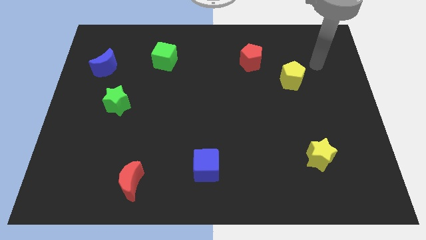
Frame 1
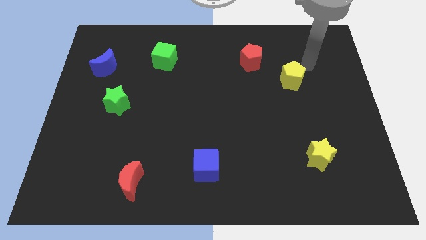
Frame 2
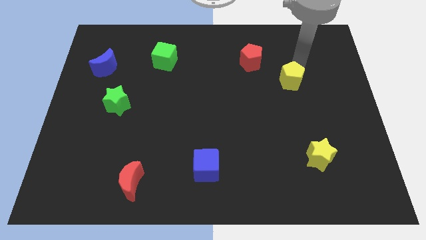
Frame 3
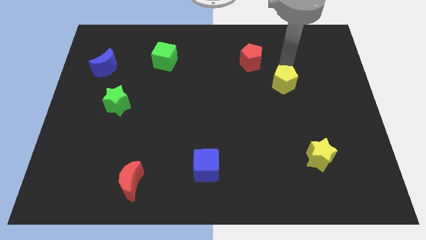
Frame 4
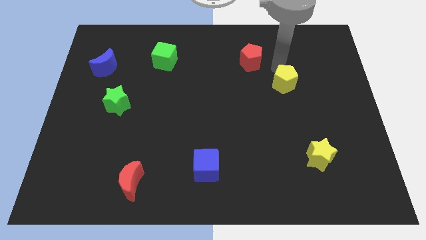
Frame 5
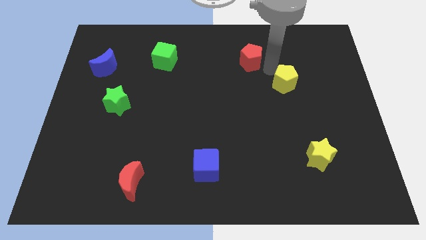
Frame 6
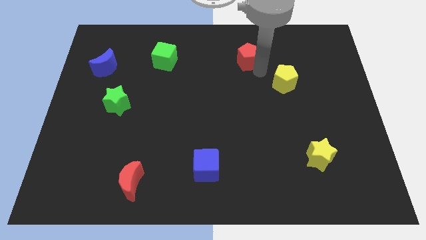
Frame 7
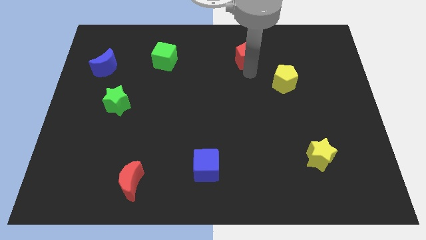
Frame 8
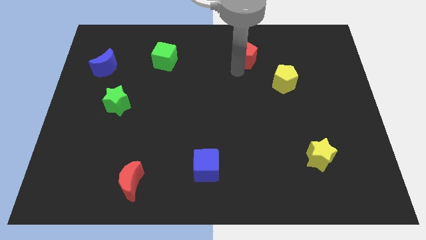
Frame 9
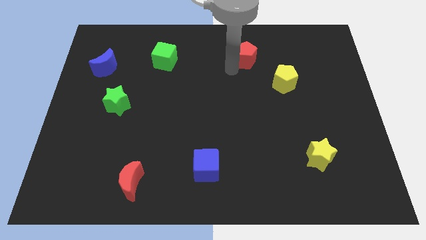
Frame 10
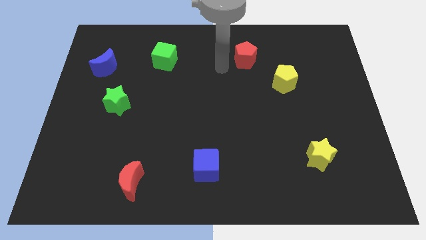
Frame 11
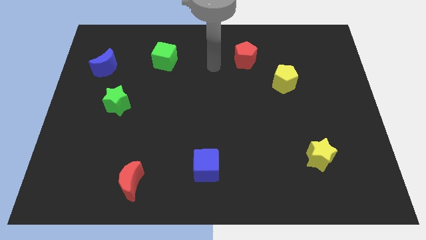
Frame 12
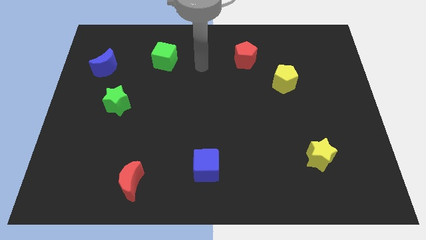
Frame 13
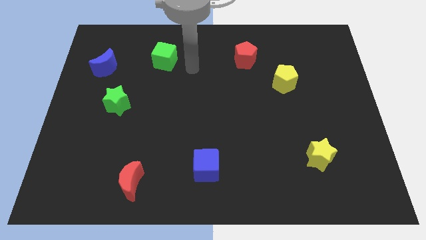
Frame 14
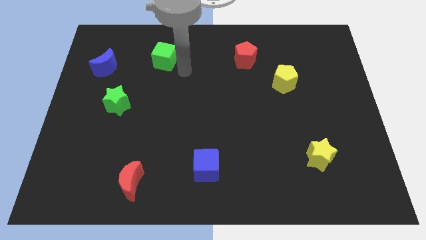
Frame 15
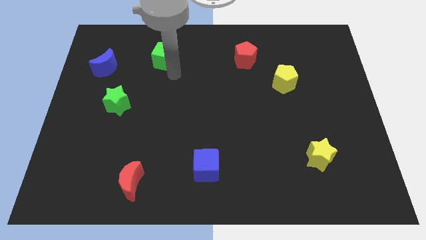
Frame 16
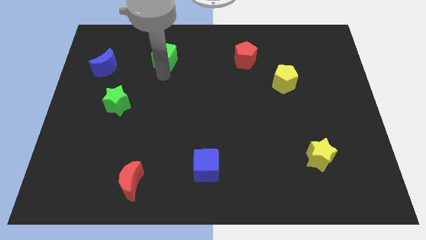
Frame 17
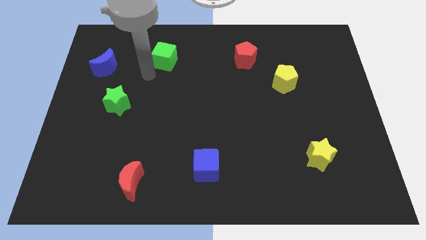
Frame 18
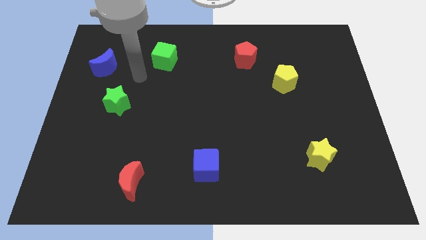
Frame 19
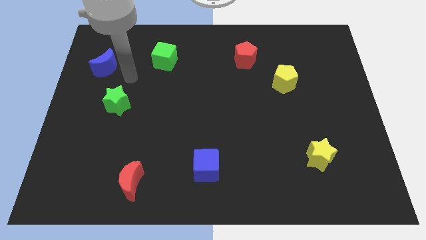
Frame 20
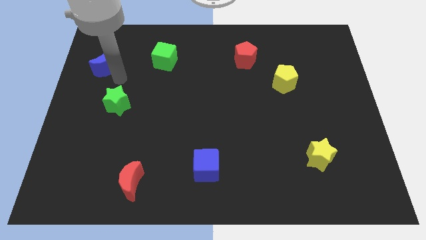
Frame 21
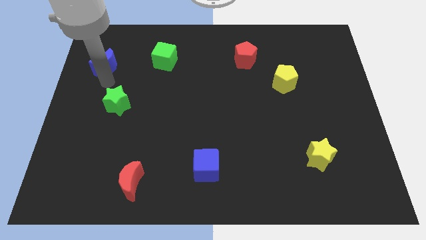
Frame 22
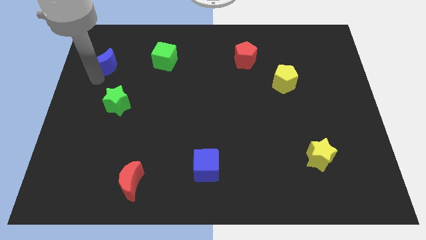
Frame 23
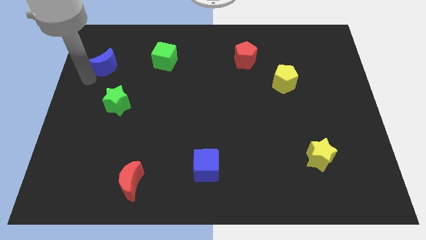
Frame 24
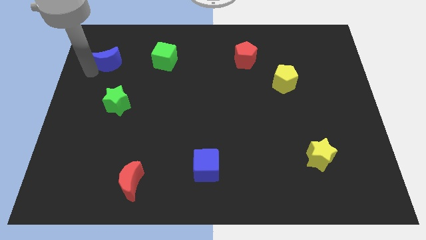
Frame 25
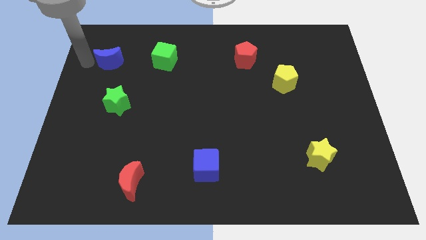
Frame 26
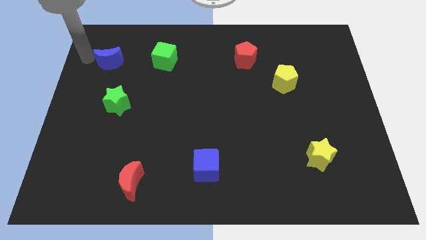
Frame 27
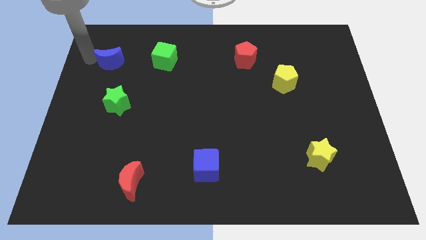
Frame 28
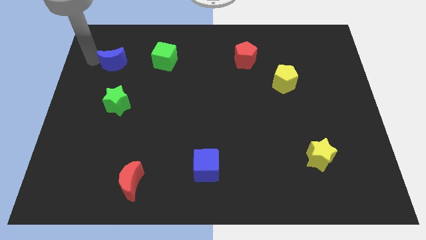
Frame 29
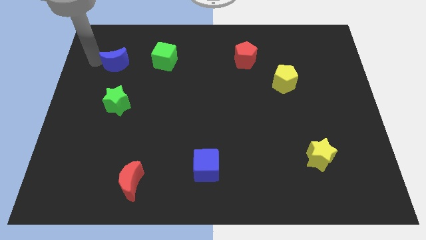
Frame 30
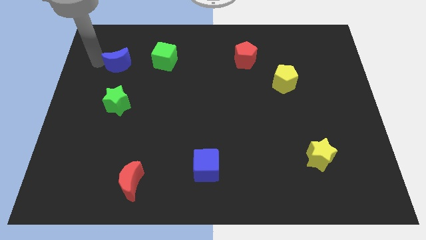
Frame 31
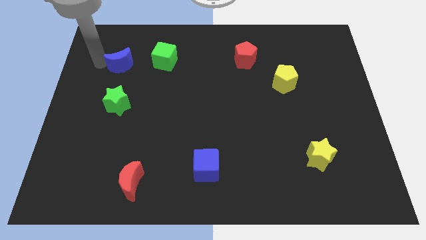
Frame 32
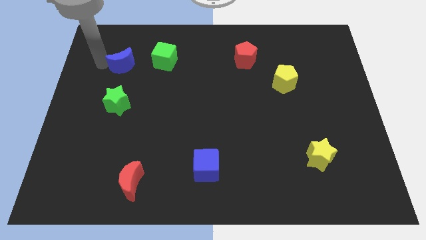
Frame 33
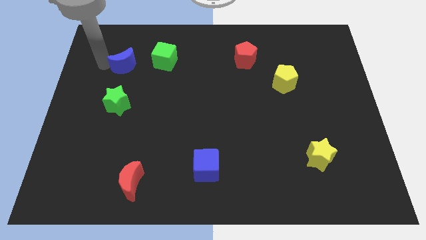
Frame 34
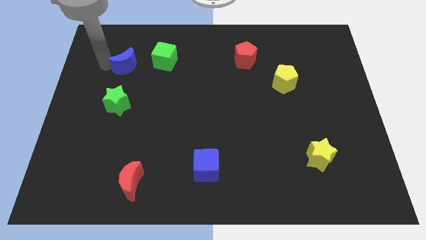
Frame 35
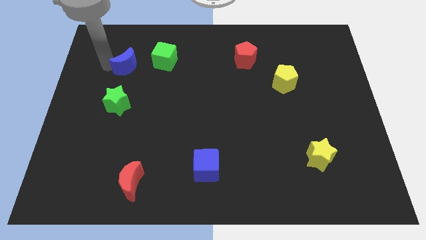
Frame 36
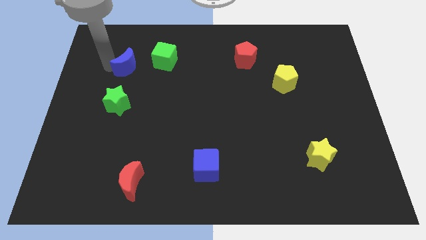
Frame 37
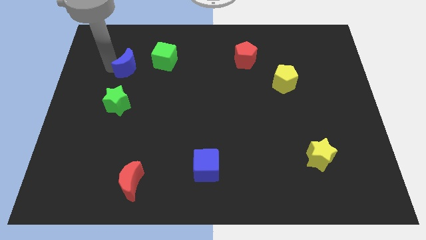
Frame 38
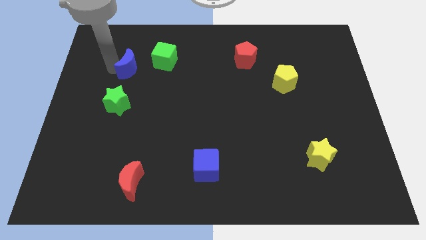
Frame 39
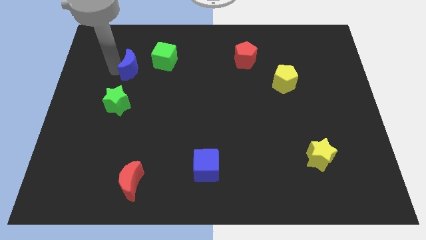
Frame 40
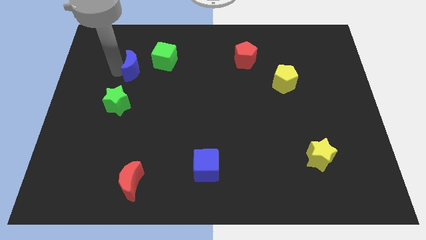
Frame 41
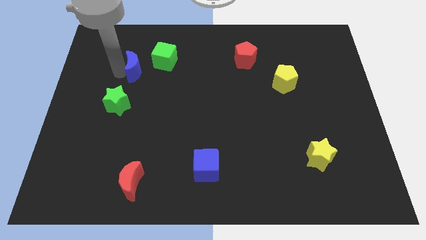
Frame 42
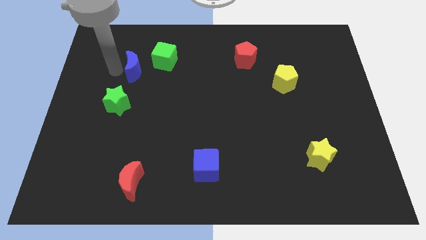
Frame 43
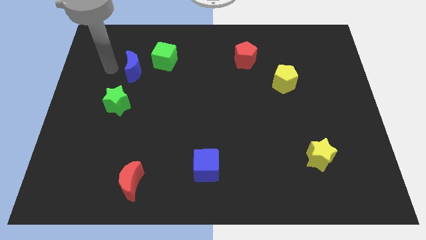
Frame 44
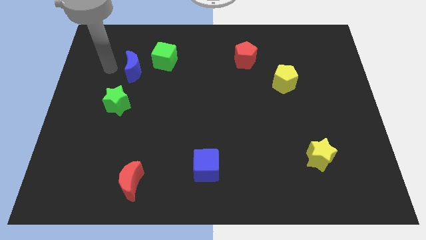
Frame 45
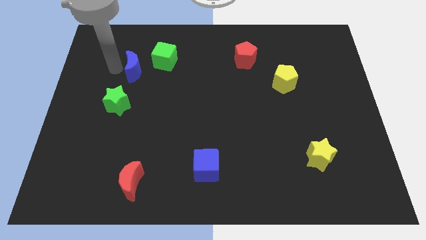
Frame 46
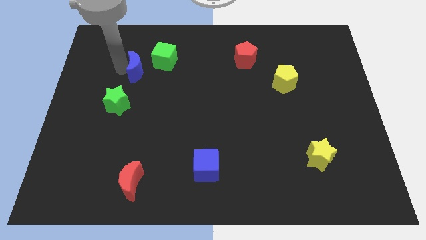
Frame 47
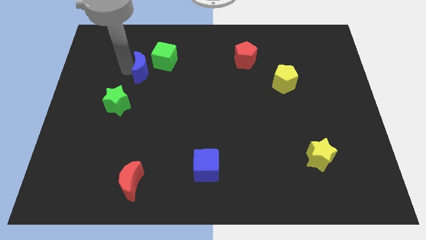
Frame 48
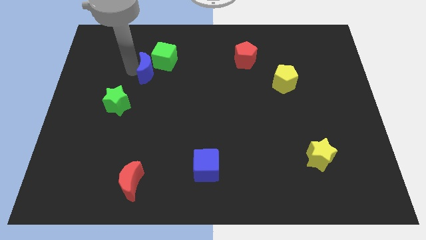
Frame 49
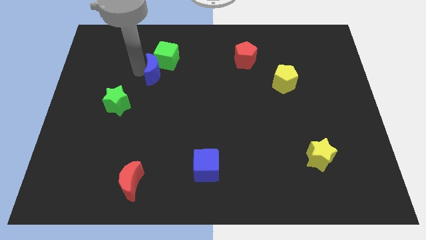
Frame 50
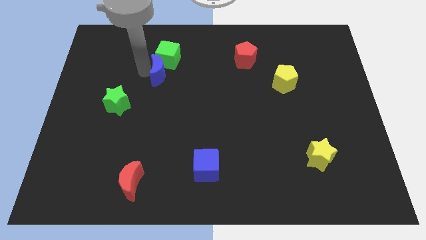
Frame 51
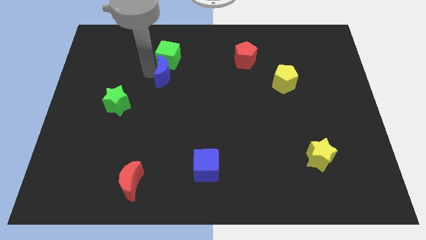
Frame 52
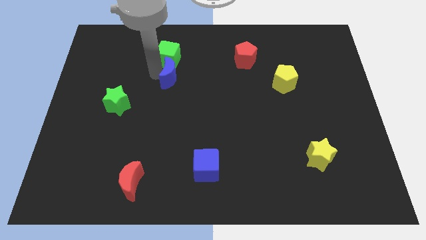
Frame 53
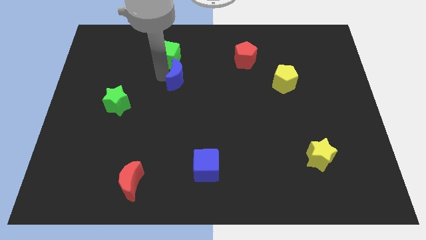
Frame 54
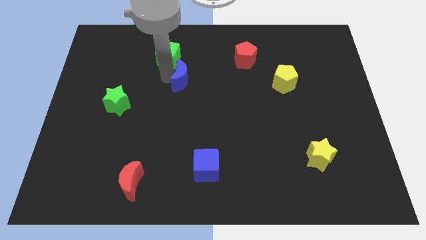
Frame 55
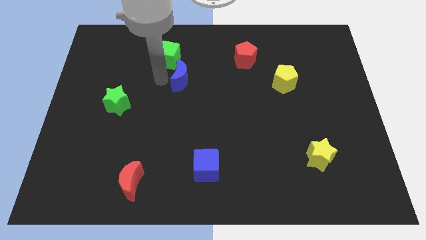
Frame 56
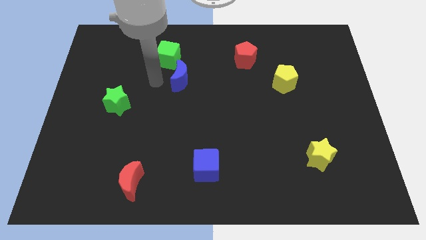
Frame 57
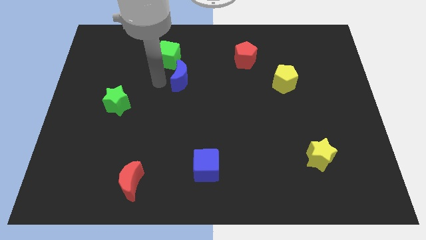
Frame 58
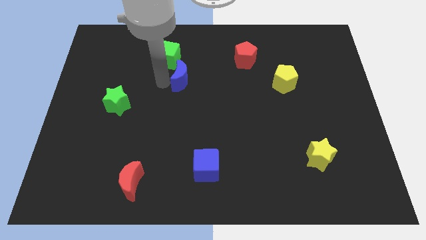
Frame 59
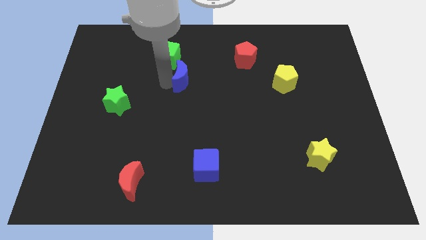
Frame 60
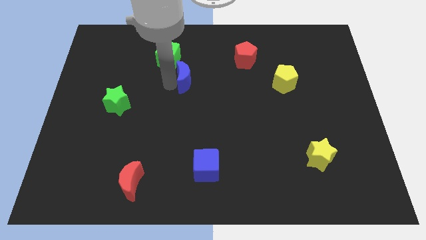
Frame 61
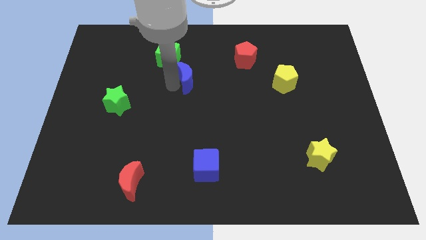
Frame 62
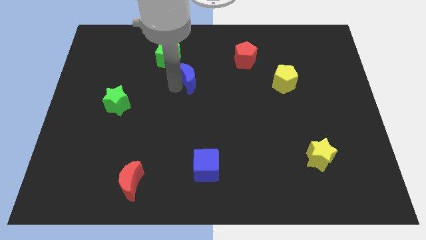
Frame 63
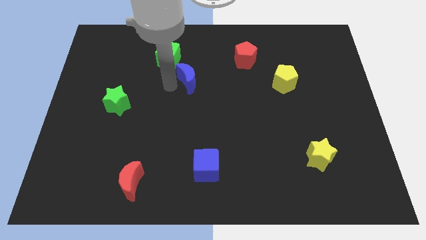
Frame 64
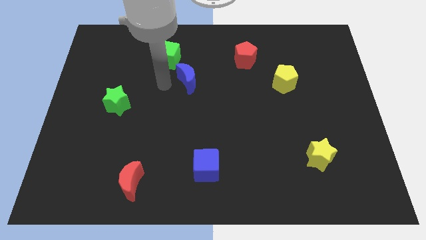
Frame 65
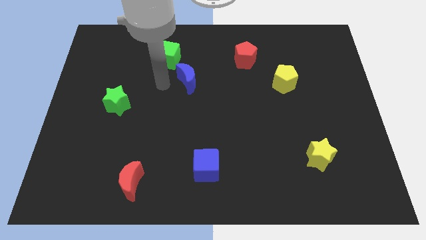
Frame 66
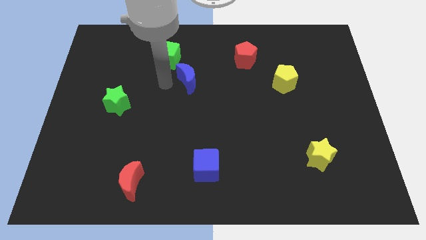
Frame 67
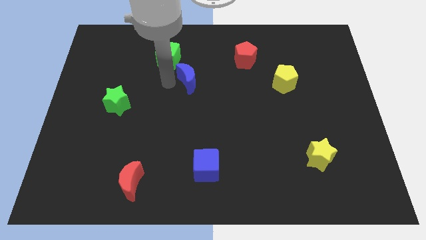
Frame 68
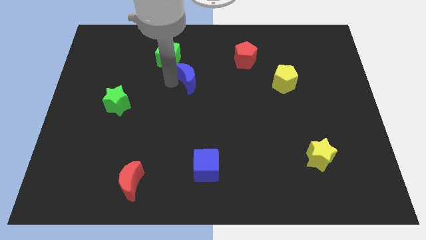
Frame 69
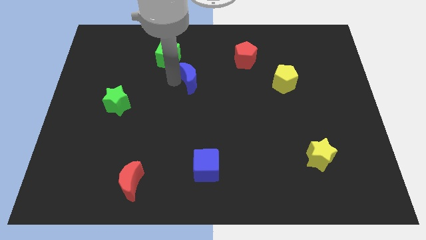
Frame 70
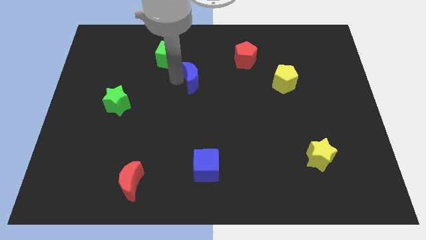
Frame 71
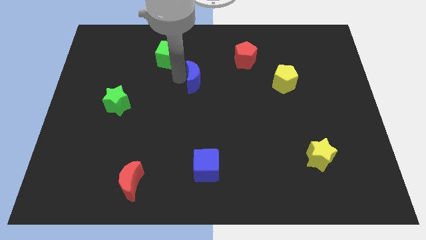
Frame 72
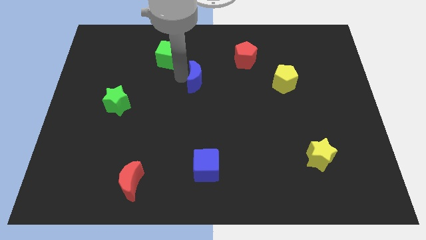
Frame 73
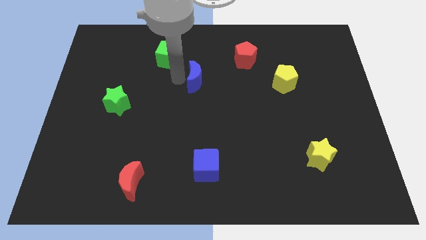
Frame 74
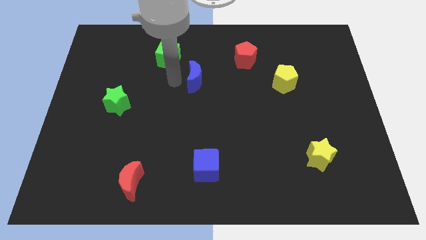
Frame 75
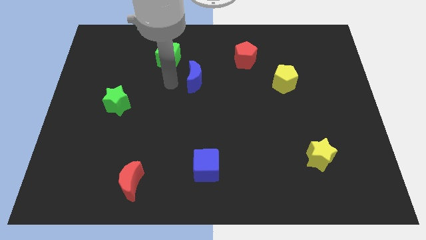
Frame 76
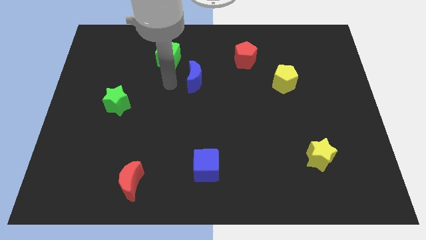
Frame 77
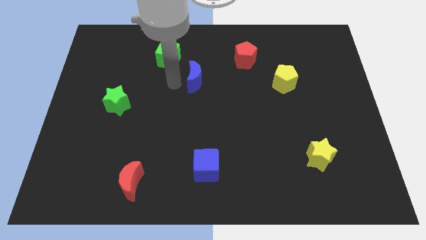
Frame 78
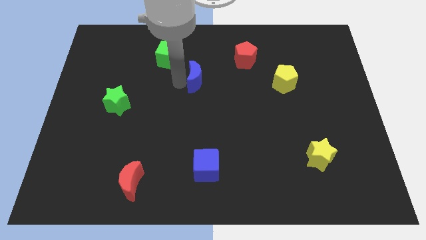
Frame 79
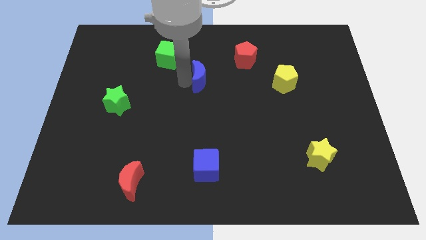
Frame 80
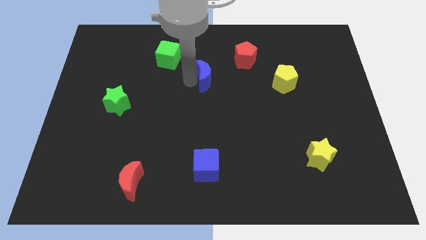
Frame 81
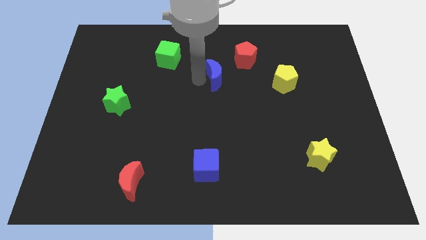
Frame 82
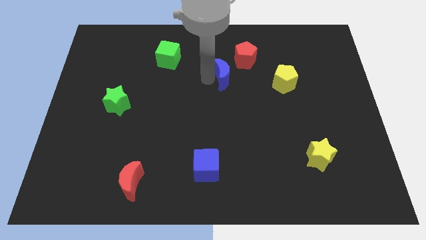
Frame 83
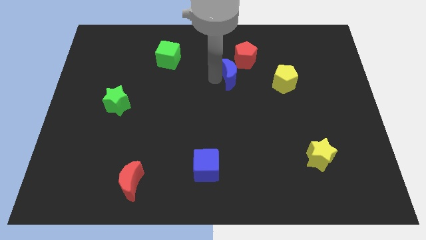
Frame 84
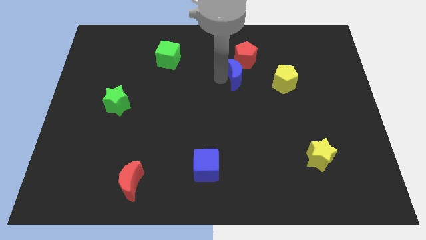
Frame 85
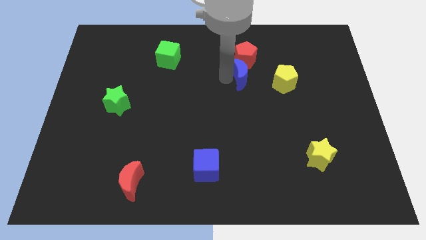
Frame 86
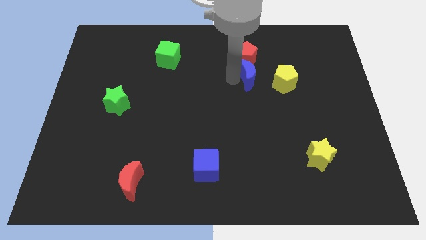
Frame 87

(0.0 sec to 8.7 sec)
move the blue moon to the top left of the yellow pentagon
